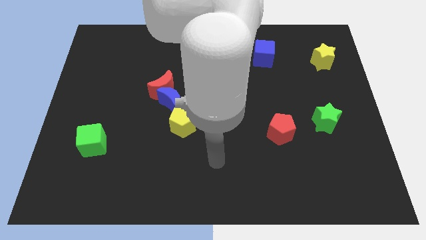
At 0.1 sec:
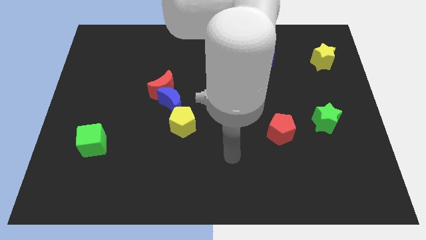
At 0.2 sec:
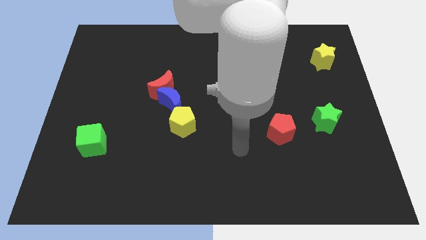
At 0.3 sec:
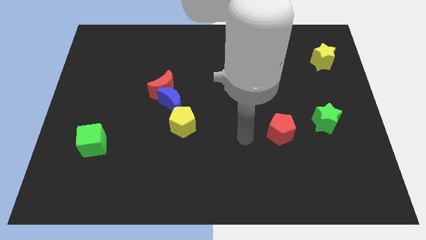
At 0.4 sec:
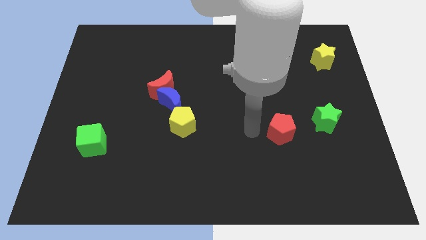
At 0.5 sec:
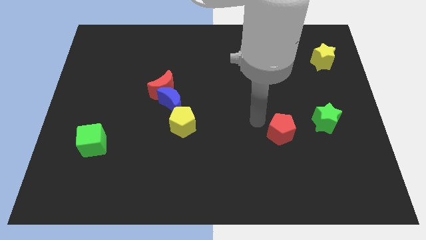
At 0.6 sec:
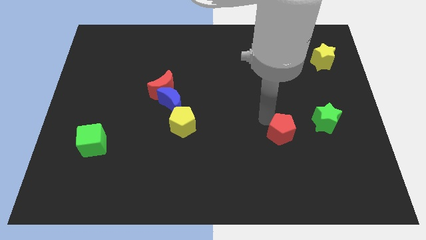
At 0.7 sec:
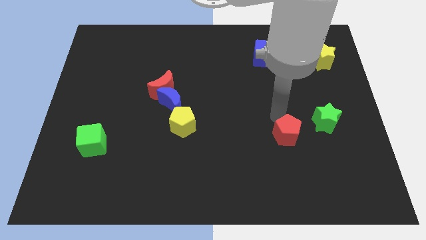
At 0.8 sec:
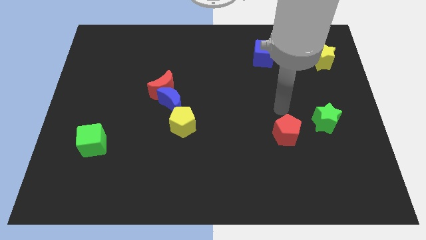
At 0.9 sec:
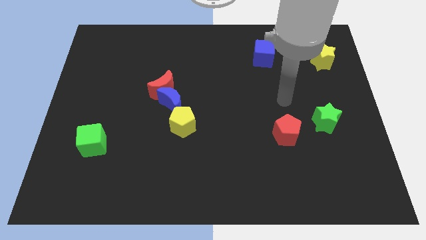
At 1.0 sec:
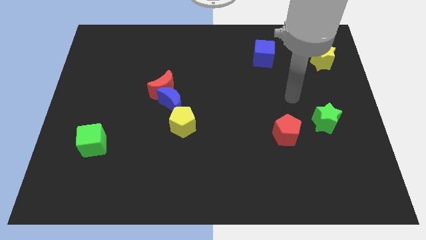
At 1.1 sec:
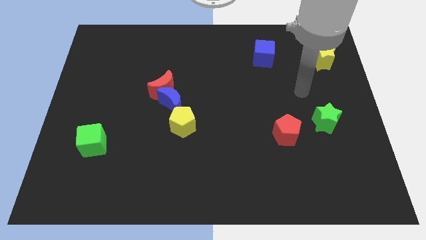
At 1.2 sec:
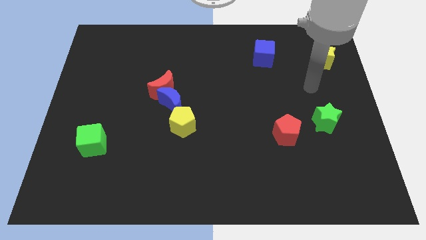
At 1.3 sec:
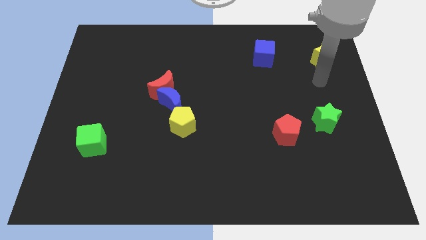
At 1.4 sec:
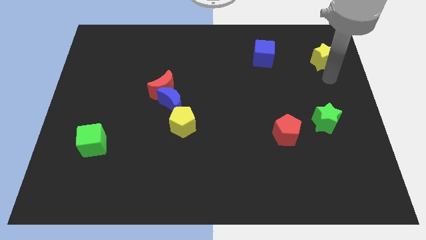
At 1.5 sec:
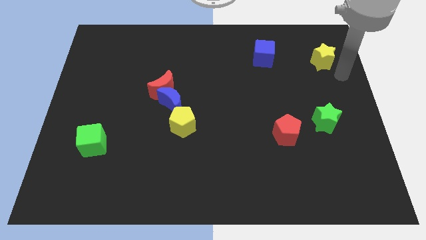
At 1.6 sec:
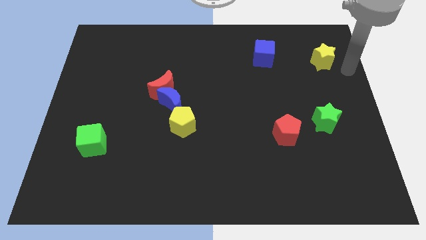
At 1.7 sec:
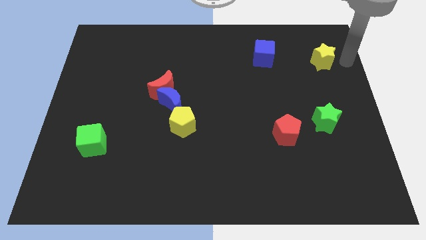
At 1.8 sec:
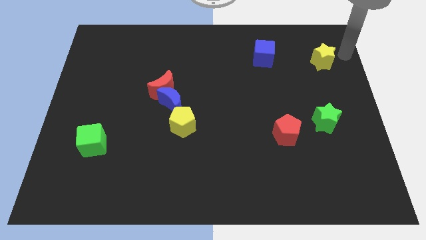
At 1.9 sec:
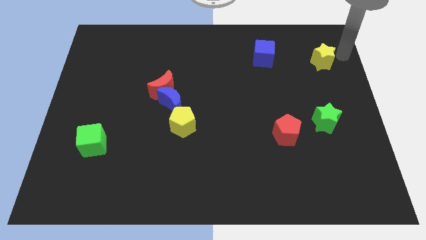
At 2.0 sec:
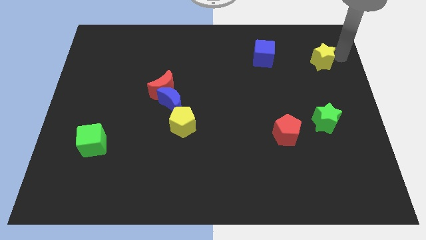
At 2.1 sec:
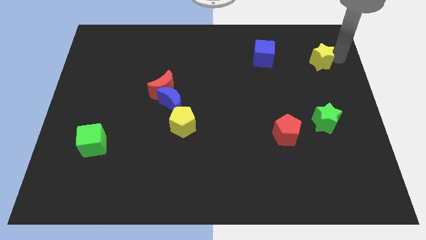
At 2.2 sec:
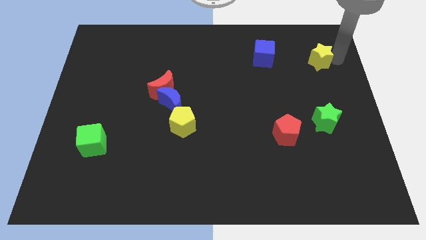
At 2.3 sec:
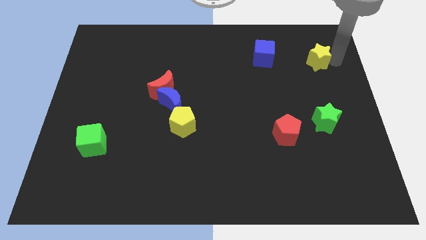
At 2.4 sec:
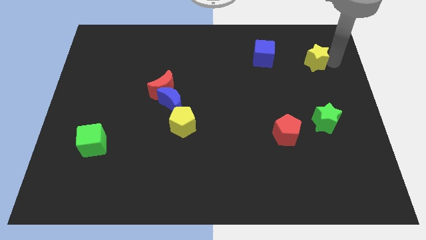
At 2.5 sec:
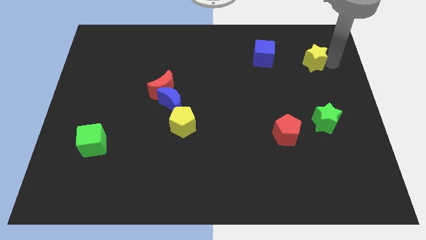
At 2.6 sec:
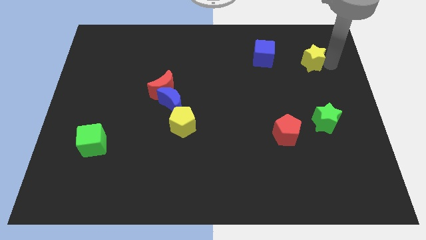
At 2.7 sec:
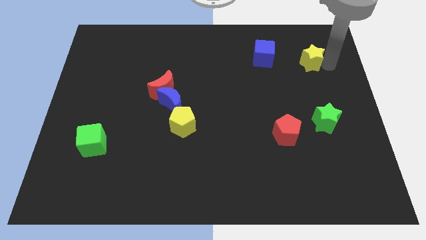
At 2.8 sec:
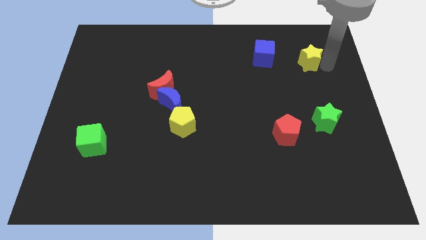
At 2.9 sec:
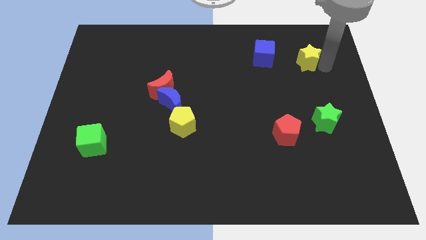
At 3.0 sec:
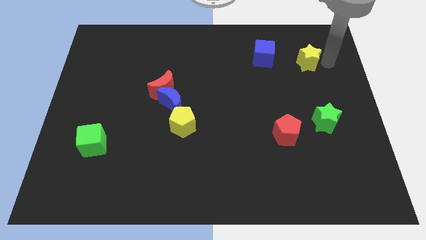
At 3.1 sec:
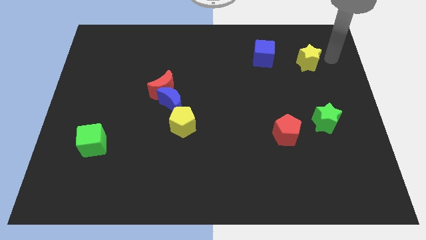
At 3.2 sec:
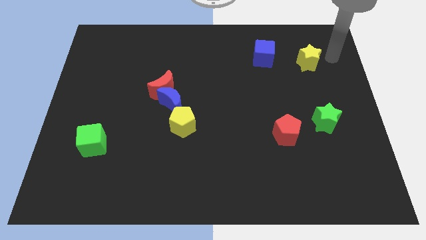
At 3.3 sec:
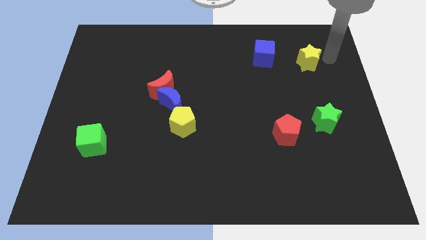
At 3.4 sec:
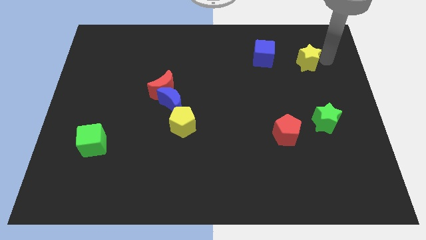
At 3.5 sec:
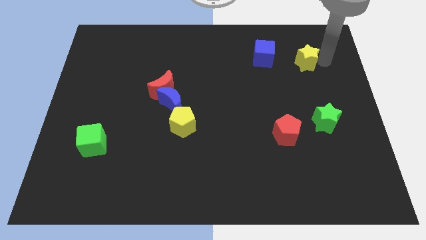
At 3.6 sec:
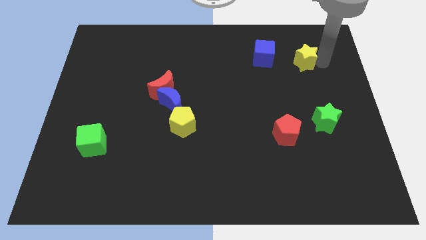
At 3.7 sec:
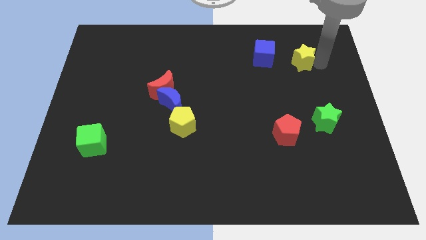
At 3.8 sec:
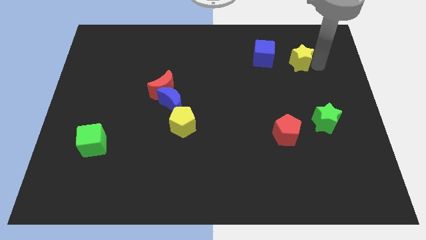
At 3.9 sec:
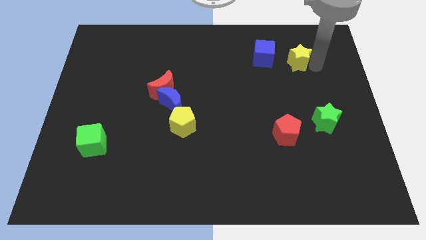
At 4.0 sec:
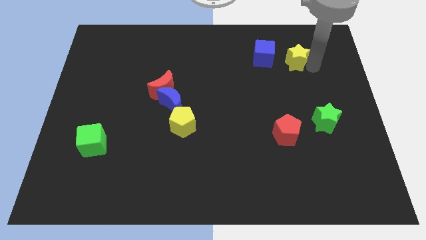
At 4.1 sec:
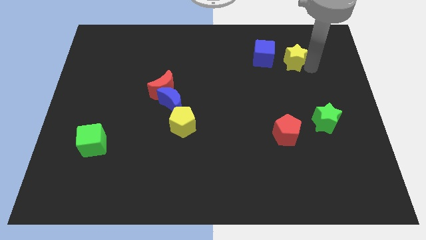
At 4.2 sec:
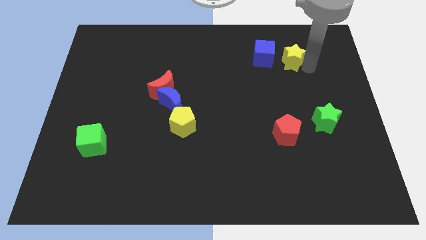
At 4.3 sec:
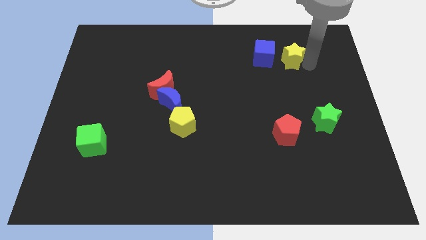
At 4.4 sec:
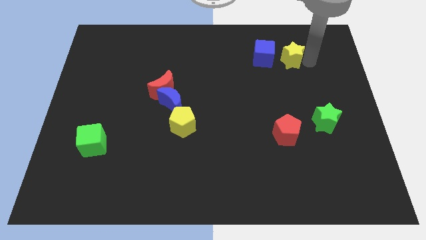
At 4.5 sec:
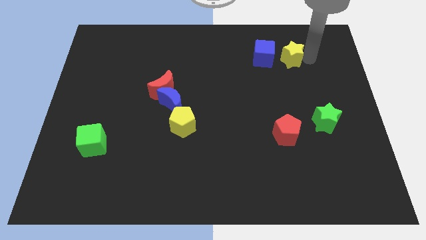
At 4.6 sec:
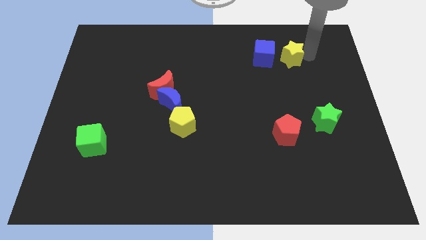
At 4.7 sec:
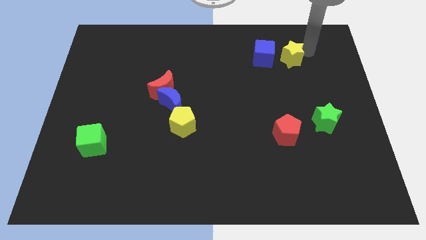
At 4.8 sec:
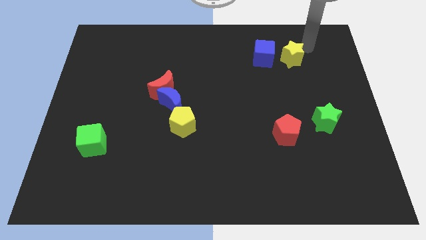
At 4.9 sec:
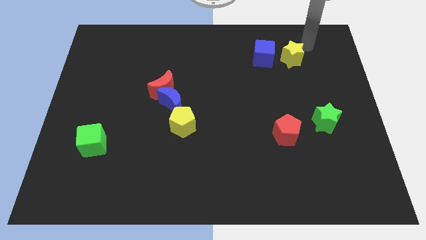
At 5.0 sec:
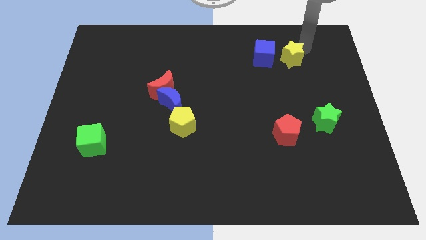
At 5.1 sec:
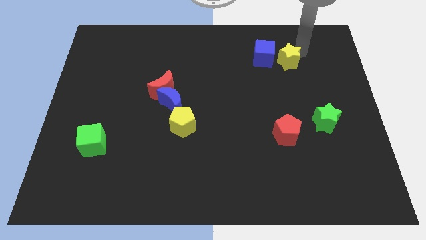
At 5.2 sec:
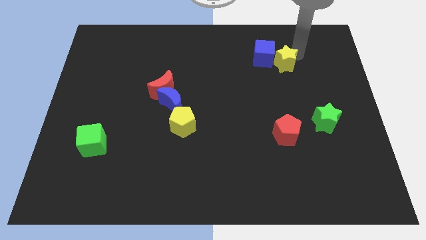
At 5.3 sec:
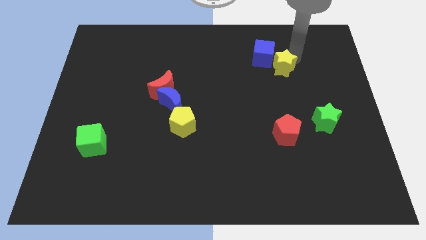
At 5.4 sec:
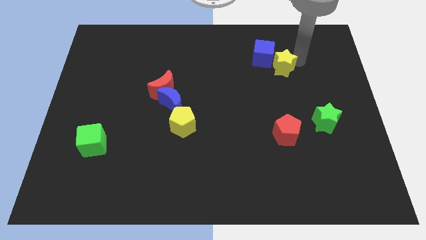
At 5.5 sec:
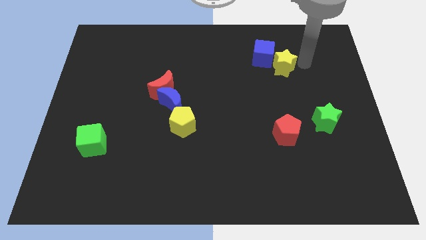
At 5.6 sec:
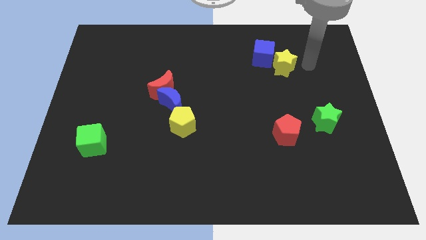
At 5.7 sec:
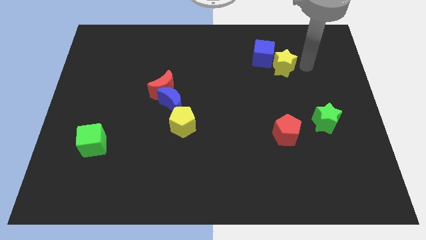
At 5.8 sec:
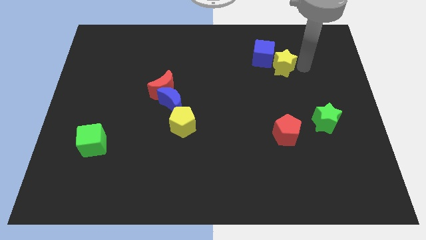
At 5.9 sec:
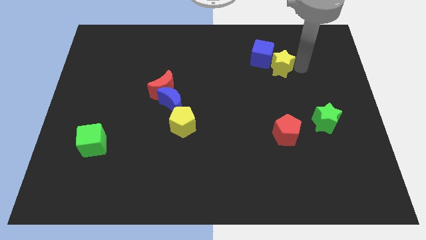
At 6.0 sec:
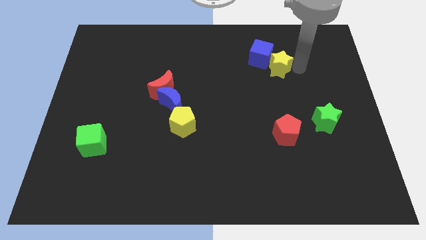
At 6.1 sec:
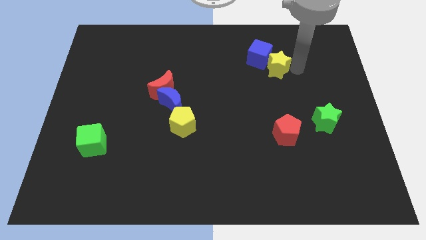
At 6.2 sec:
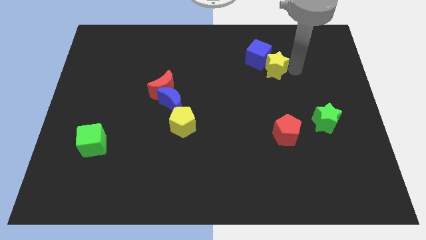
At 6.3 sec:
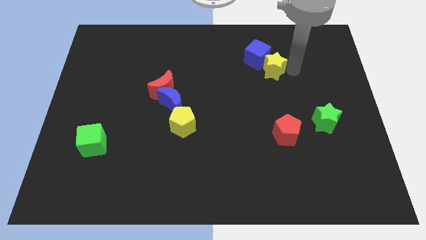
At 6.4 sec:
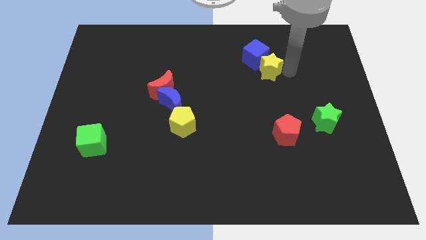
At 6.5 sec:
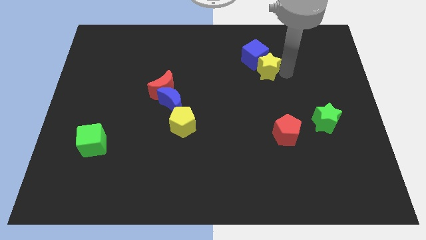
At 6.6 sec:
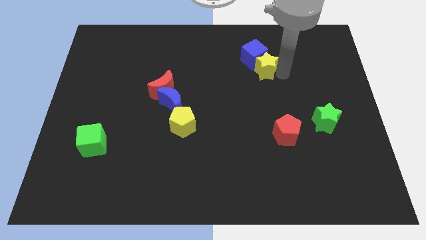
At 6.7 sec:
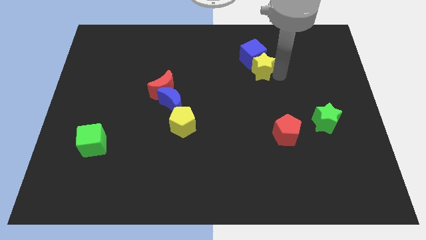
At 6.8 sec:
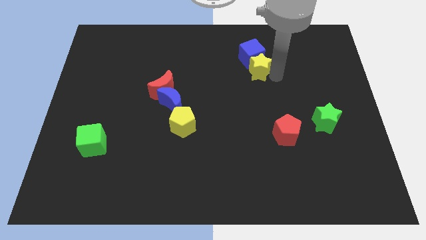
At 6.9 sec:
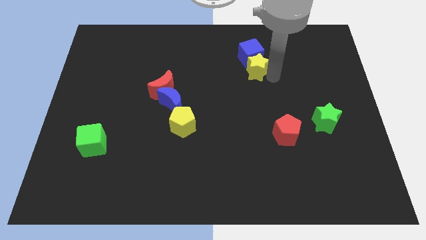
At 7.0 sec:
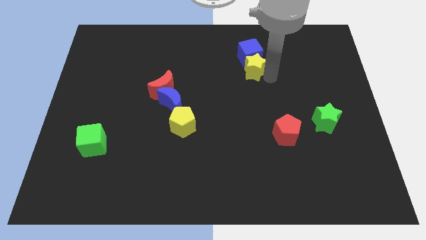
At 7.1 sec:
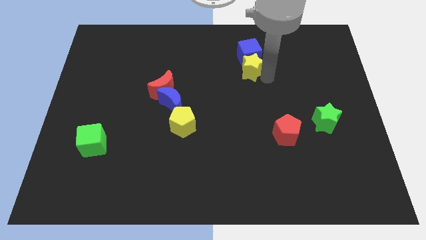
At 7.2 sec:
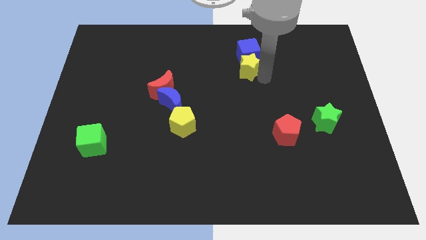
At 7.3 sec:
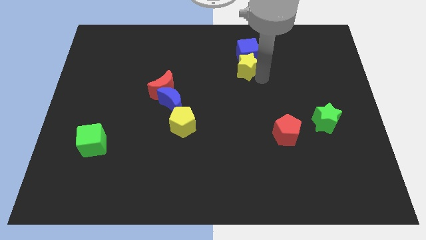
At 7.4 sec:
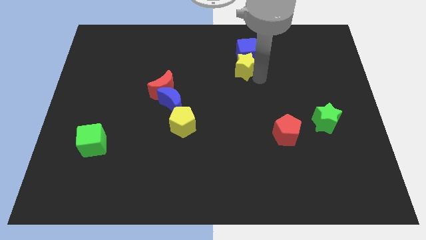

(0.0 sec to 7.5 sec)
move the yellow star to the left

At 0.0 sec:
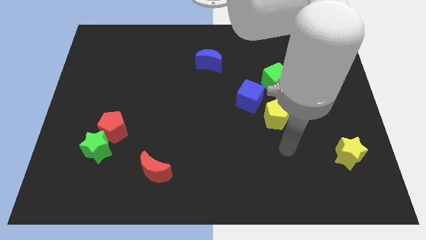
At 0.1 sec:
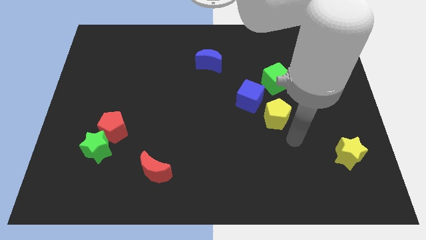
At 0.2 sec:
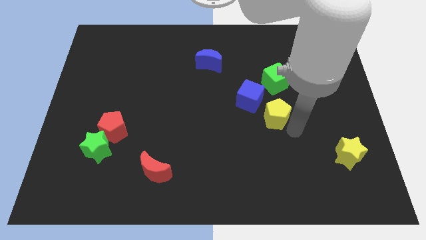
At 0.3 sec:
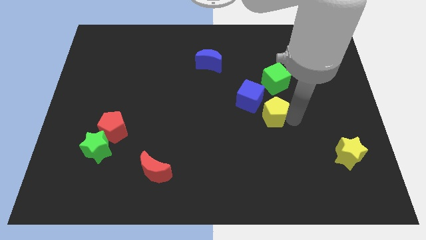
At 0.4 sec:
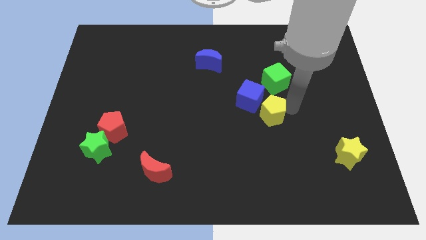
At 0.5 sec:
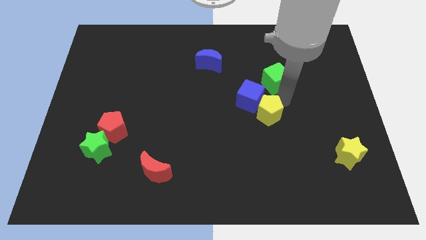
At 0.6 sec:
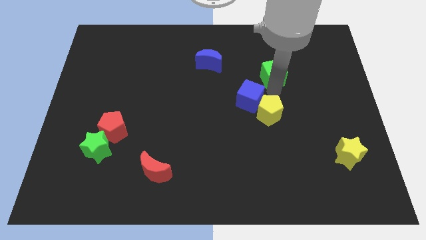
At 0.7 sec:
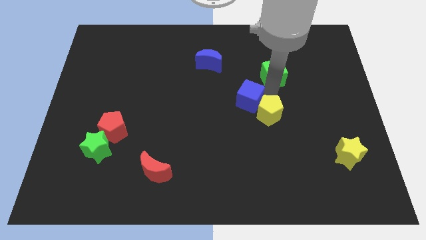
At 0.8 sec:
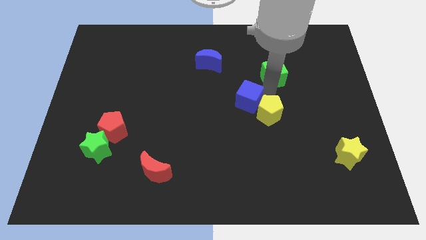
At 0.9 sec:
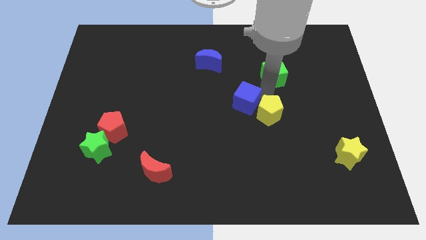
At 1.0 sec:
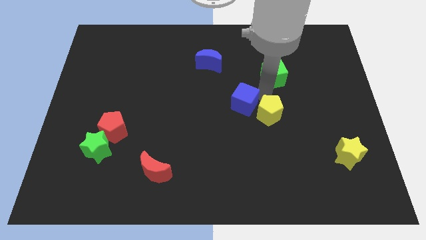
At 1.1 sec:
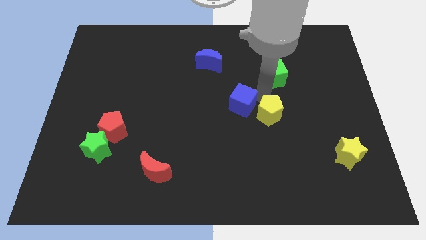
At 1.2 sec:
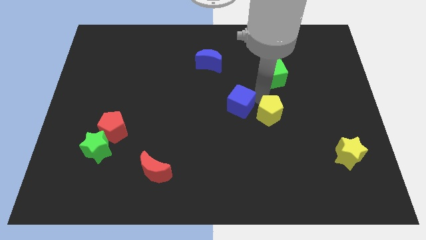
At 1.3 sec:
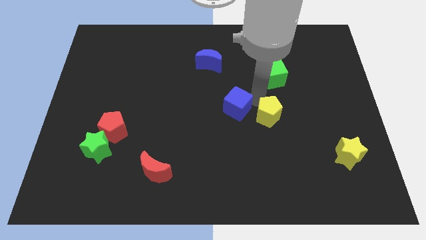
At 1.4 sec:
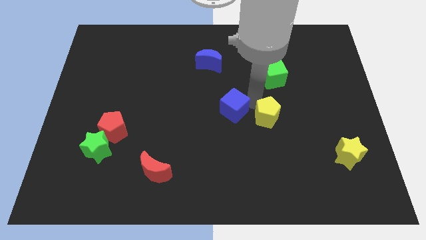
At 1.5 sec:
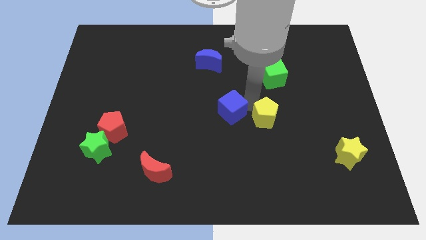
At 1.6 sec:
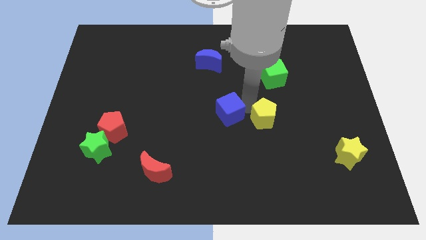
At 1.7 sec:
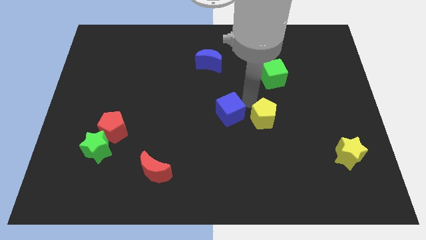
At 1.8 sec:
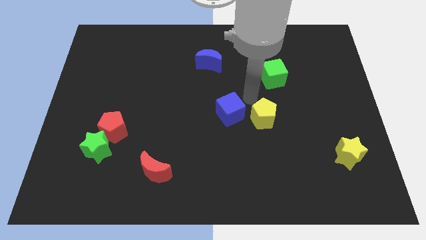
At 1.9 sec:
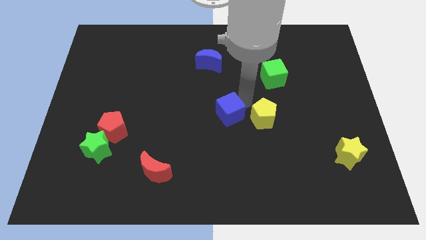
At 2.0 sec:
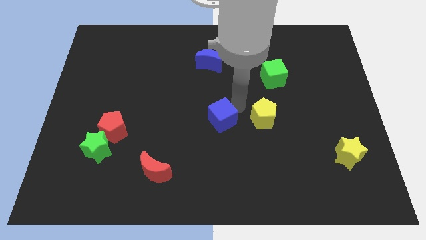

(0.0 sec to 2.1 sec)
slide the blue cube a little bit downwards and to the left diagonally
